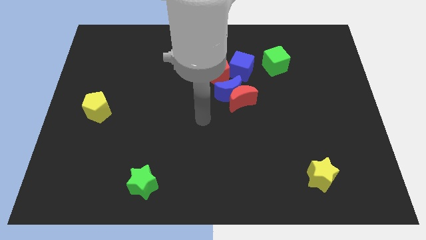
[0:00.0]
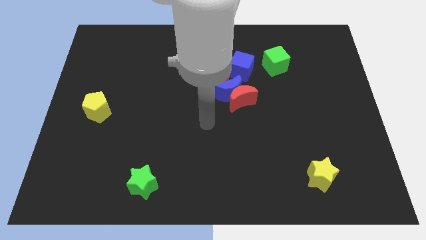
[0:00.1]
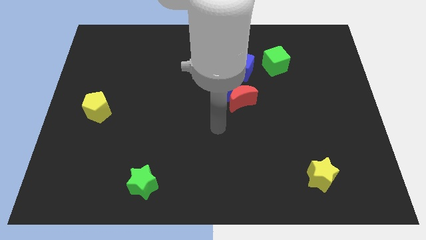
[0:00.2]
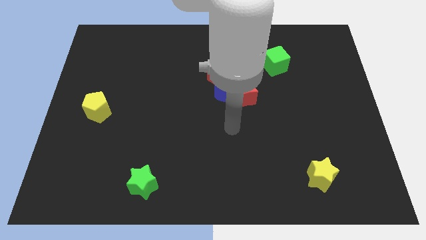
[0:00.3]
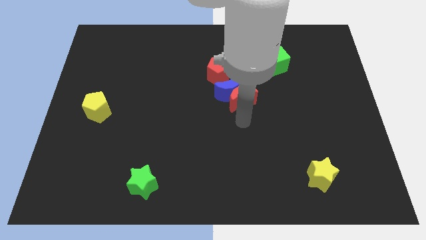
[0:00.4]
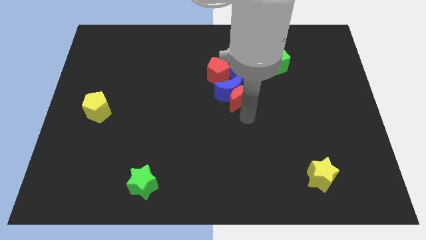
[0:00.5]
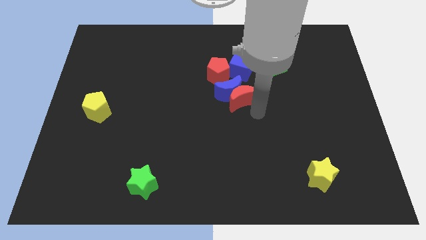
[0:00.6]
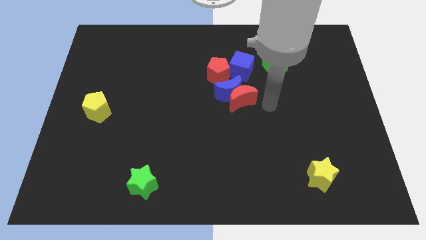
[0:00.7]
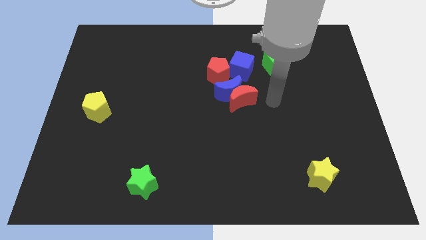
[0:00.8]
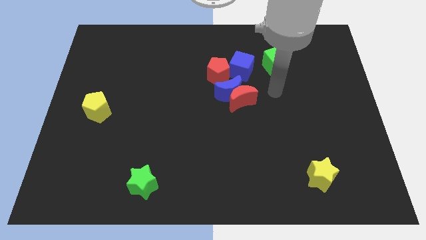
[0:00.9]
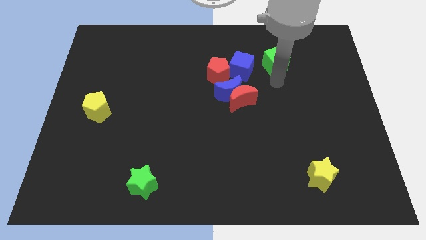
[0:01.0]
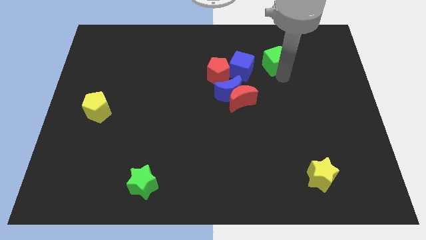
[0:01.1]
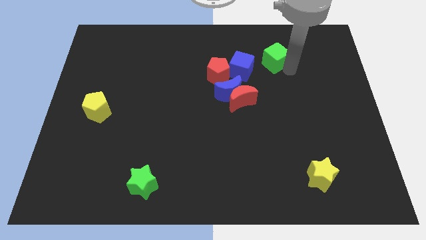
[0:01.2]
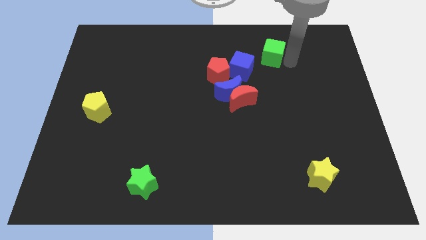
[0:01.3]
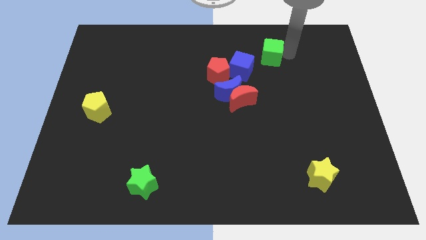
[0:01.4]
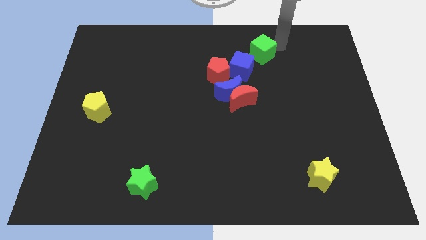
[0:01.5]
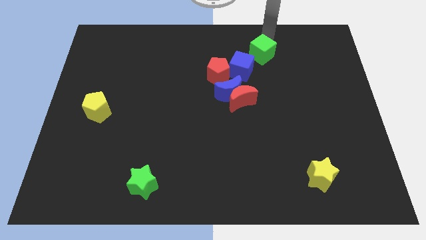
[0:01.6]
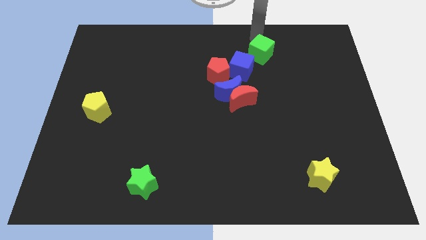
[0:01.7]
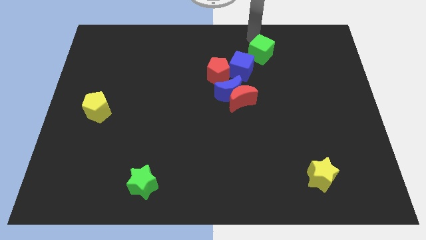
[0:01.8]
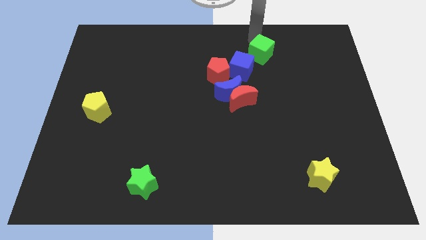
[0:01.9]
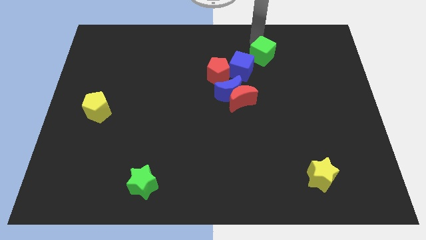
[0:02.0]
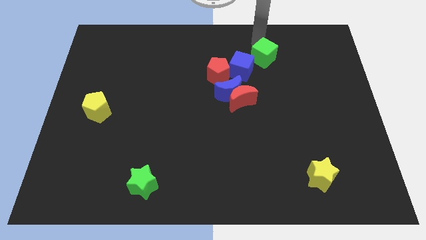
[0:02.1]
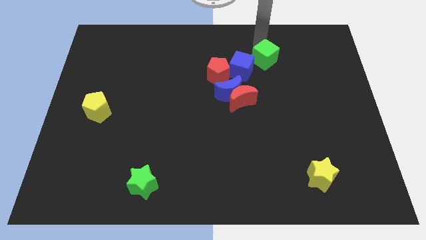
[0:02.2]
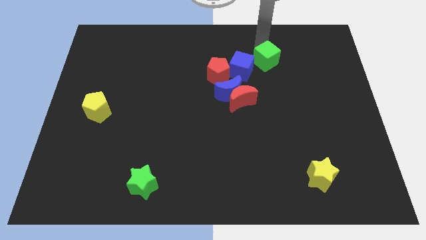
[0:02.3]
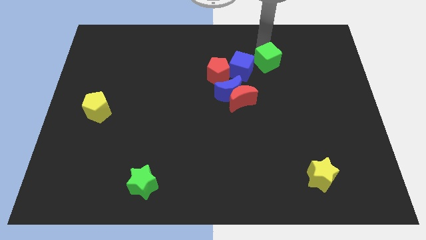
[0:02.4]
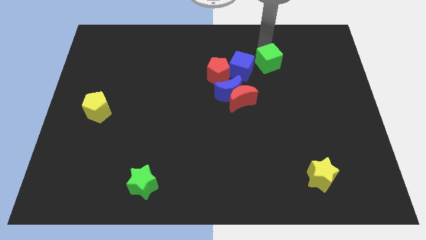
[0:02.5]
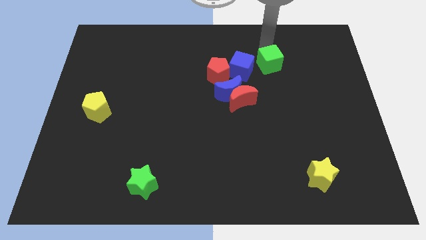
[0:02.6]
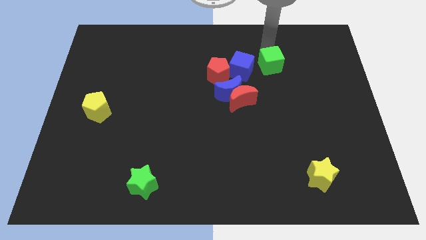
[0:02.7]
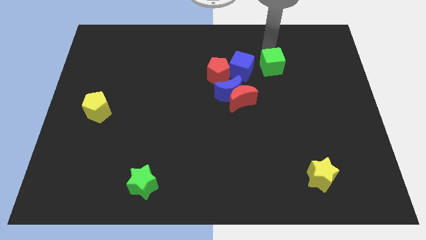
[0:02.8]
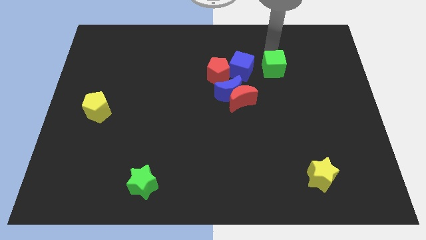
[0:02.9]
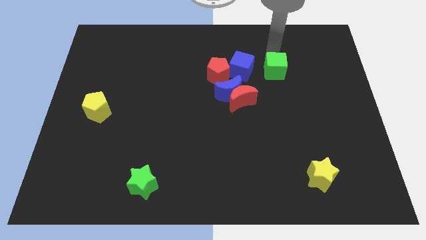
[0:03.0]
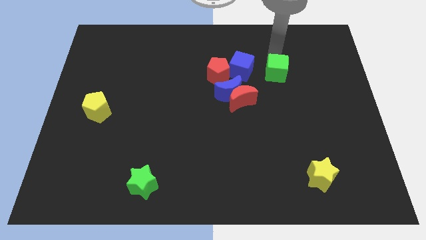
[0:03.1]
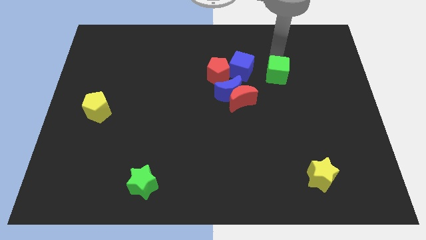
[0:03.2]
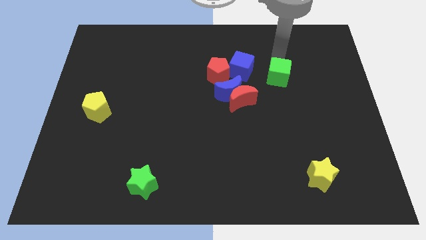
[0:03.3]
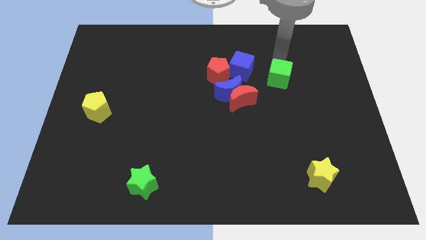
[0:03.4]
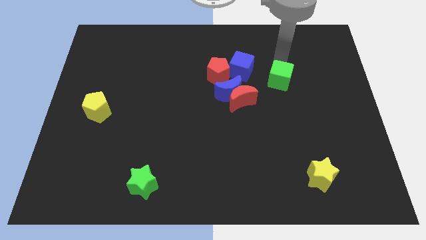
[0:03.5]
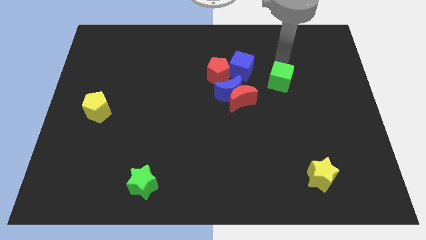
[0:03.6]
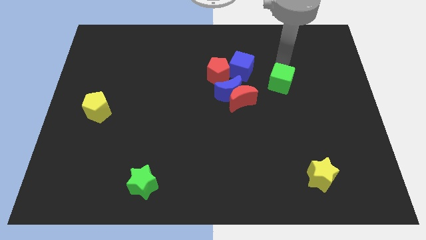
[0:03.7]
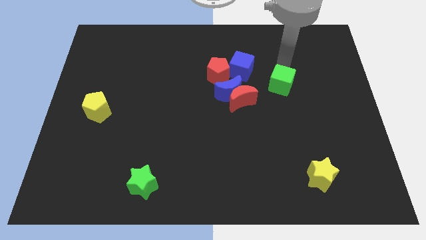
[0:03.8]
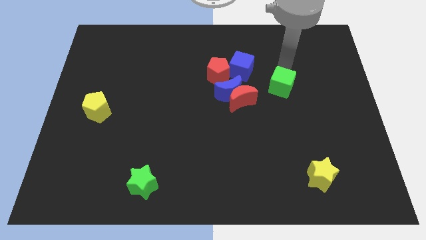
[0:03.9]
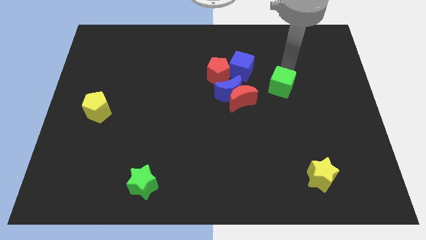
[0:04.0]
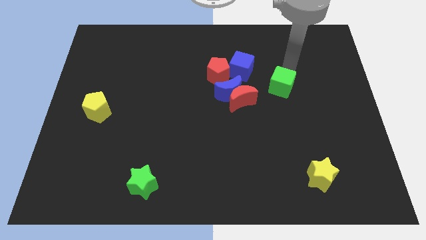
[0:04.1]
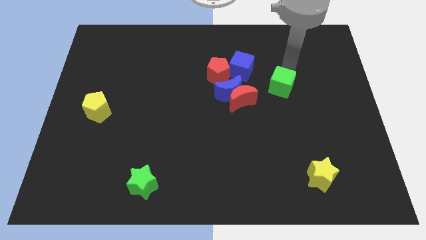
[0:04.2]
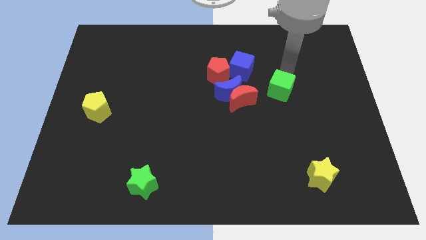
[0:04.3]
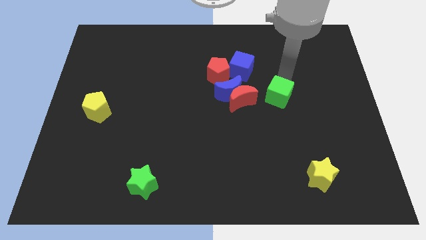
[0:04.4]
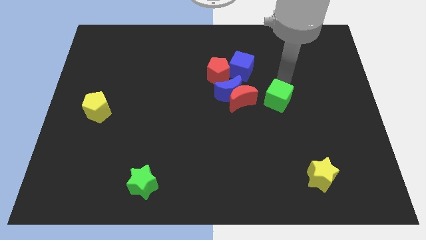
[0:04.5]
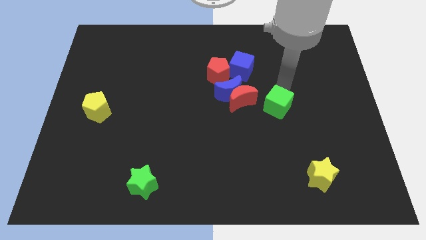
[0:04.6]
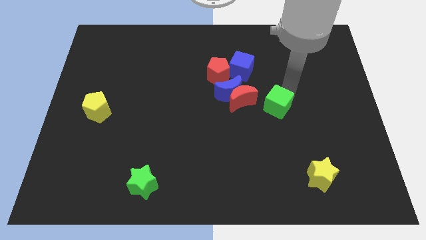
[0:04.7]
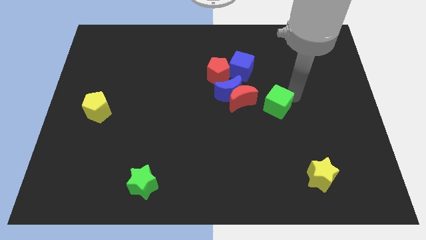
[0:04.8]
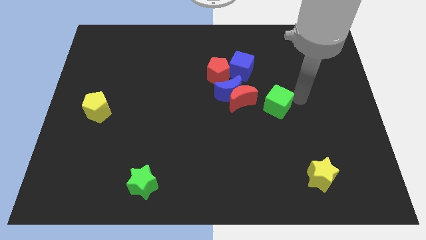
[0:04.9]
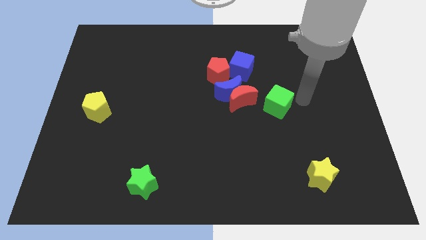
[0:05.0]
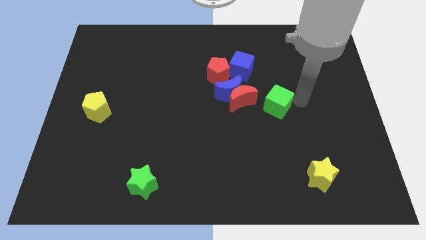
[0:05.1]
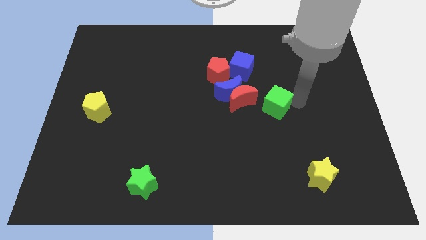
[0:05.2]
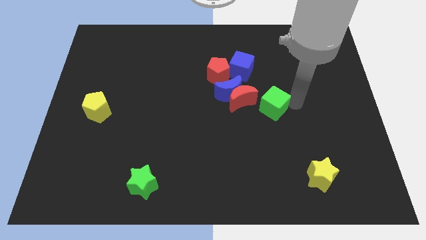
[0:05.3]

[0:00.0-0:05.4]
put the green cube diagonally down and to the right of the blue moon

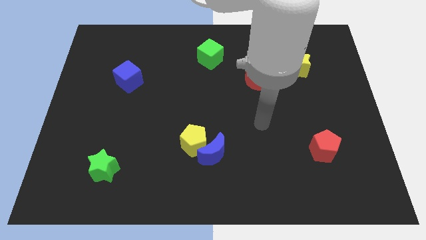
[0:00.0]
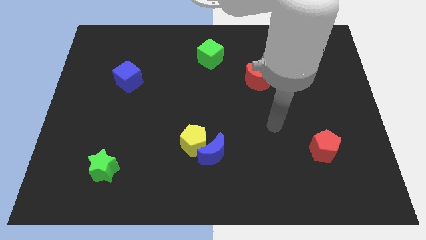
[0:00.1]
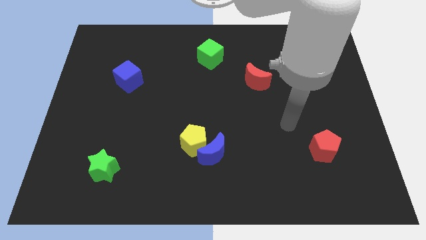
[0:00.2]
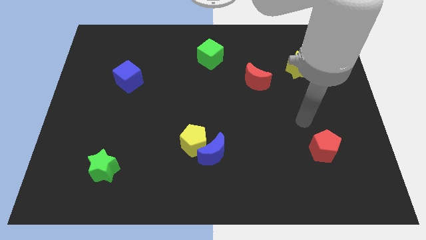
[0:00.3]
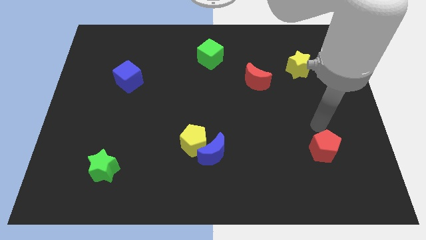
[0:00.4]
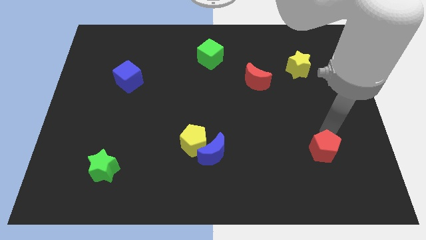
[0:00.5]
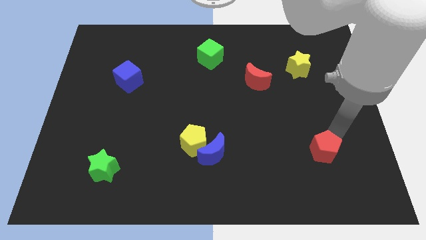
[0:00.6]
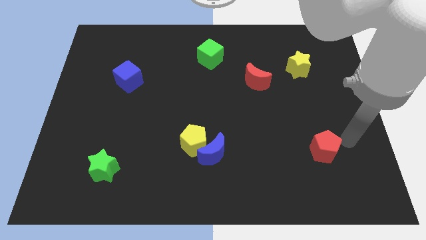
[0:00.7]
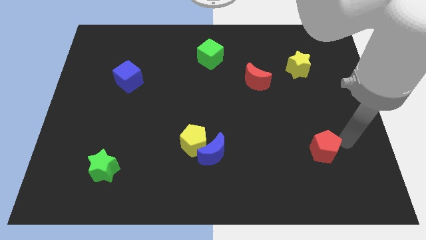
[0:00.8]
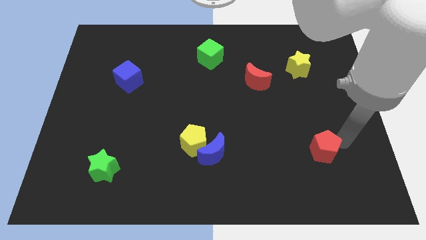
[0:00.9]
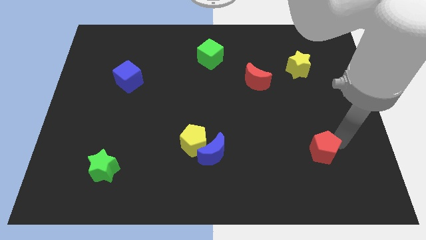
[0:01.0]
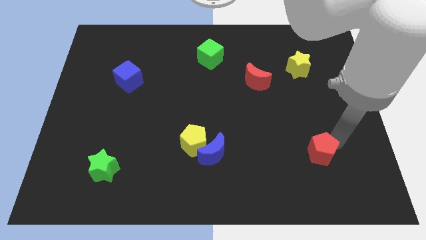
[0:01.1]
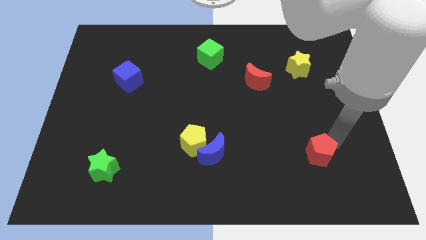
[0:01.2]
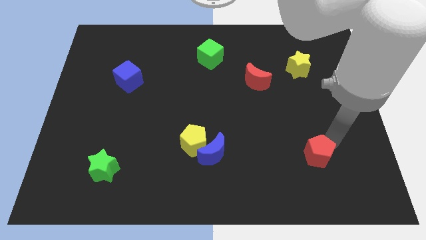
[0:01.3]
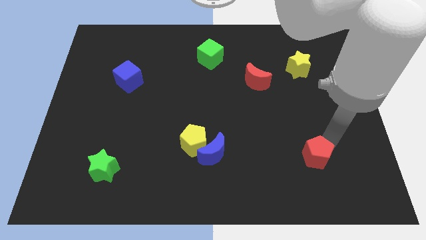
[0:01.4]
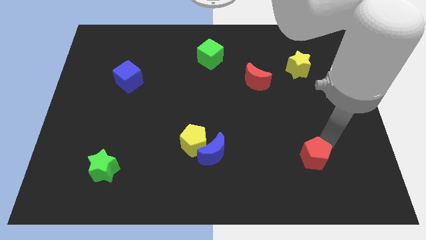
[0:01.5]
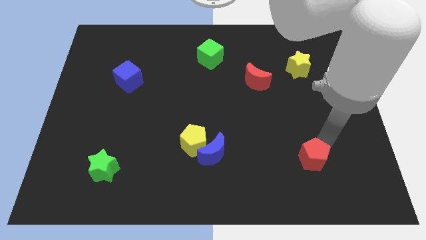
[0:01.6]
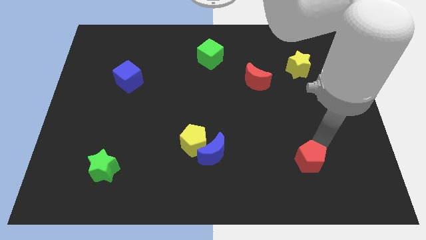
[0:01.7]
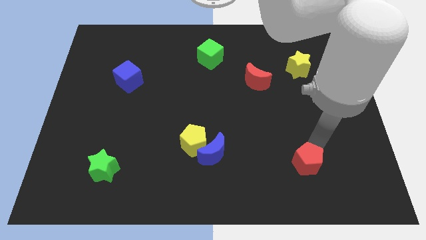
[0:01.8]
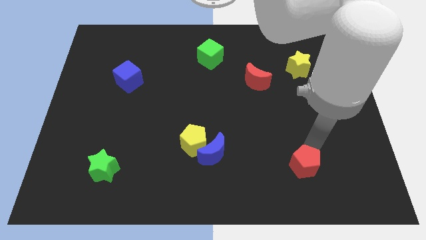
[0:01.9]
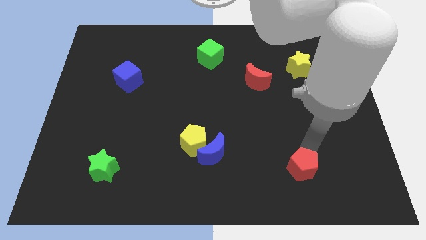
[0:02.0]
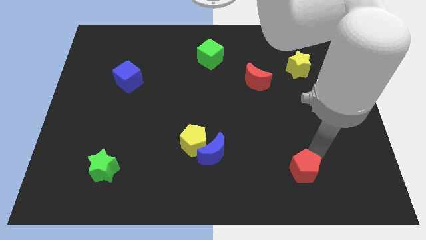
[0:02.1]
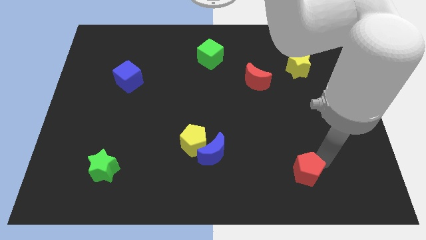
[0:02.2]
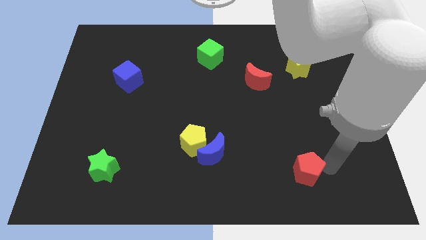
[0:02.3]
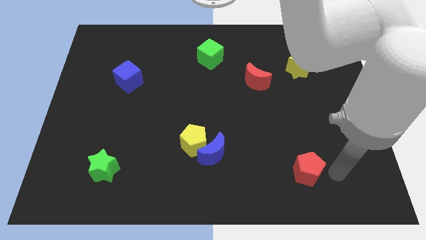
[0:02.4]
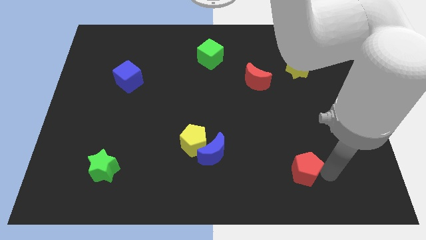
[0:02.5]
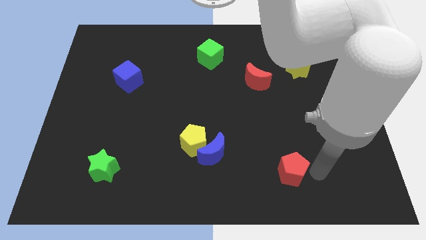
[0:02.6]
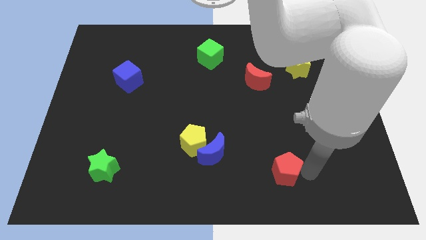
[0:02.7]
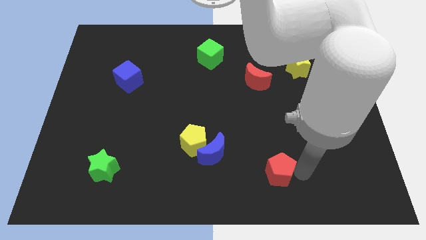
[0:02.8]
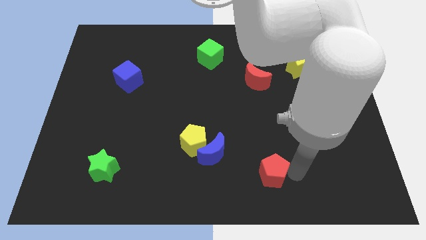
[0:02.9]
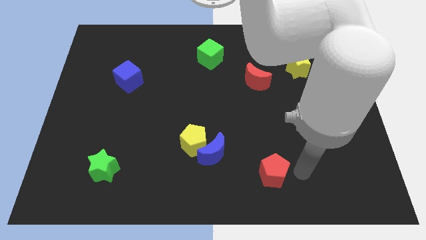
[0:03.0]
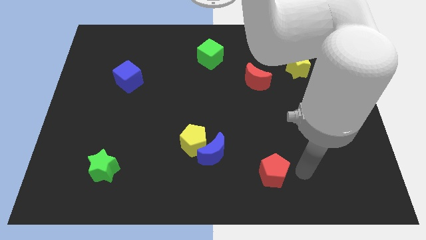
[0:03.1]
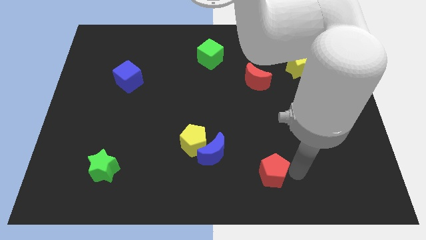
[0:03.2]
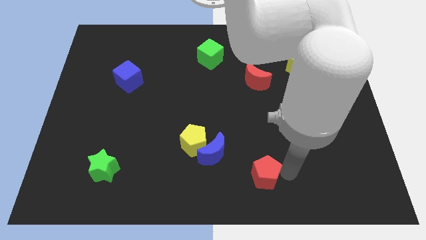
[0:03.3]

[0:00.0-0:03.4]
slide the red pentagon diagonally down and to the right of the blue moon
